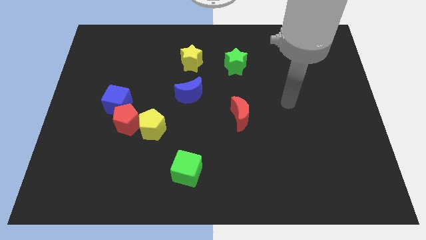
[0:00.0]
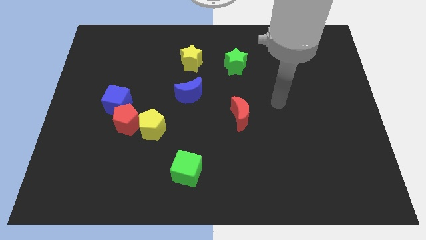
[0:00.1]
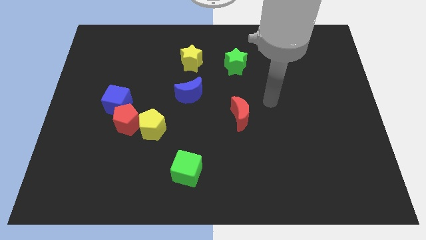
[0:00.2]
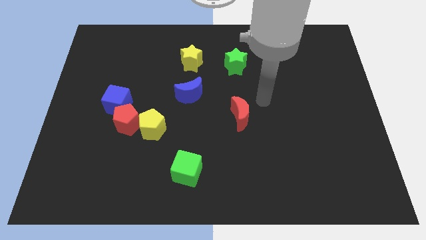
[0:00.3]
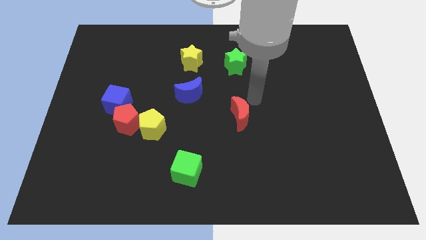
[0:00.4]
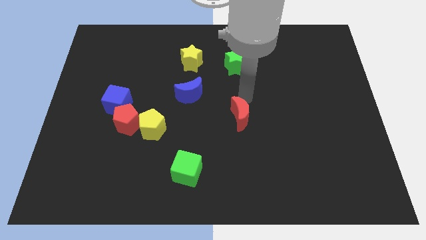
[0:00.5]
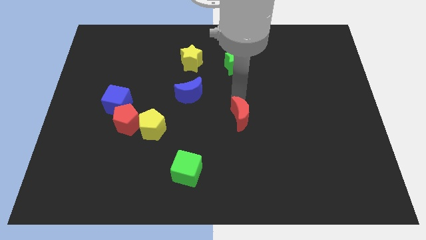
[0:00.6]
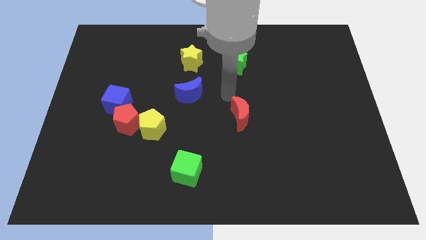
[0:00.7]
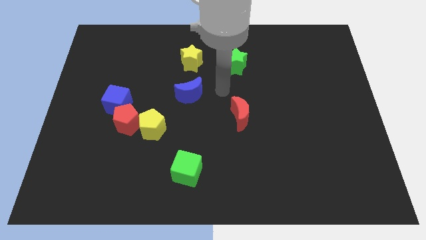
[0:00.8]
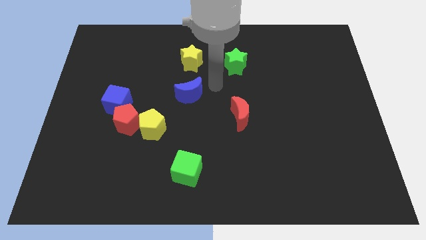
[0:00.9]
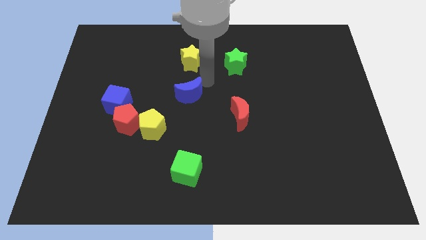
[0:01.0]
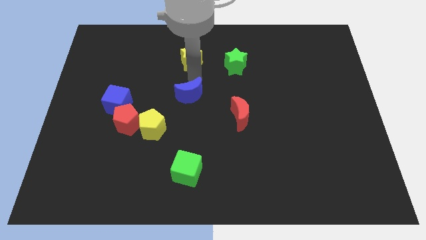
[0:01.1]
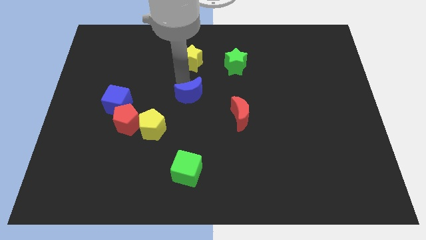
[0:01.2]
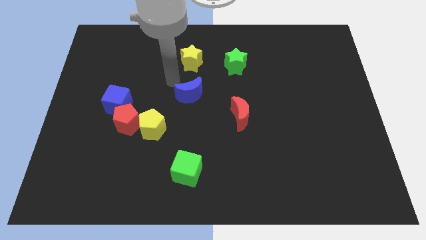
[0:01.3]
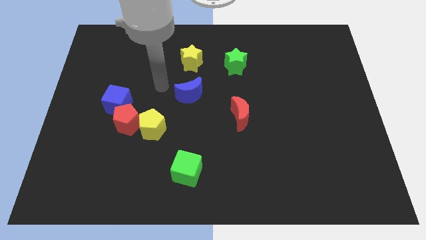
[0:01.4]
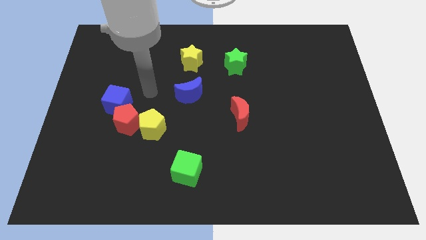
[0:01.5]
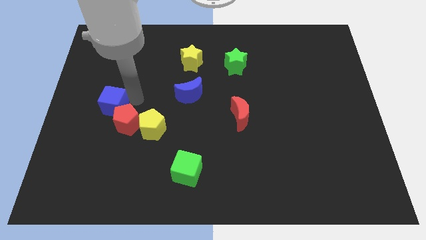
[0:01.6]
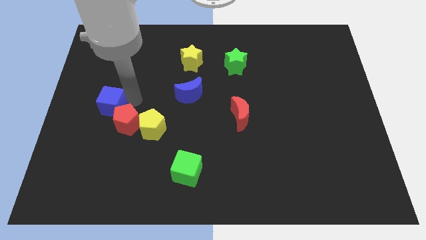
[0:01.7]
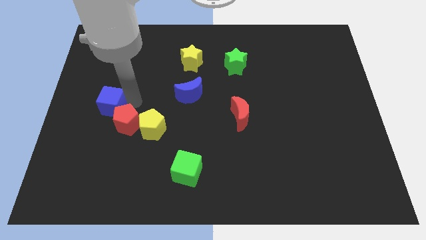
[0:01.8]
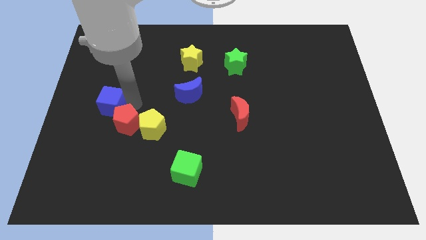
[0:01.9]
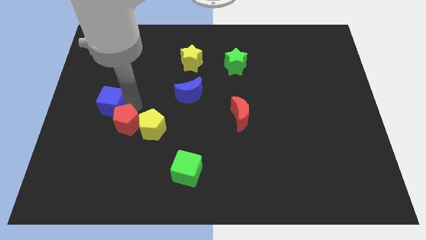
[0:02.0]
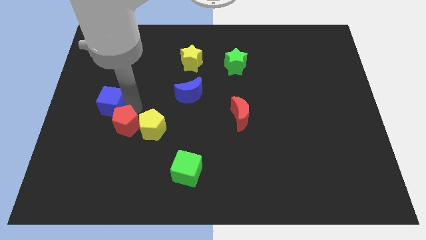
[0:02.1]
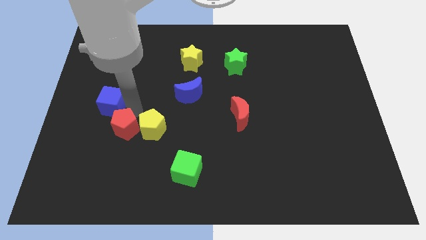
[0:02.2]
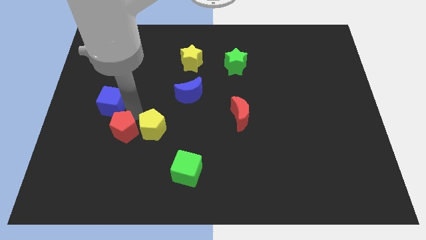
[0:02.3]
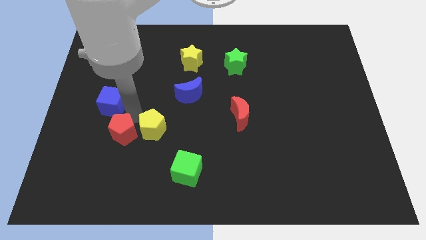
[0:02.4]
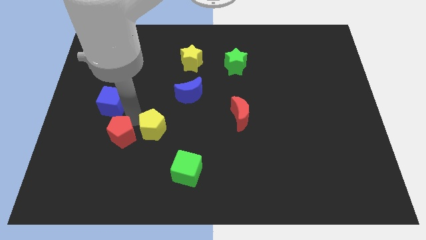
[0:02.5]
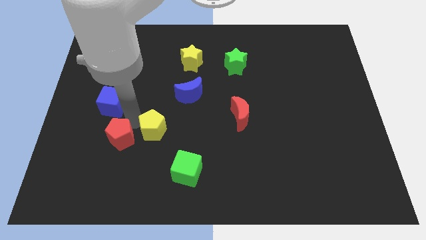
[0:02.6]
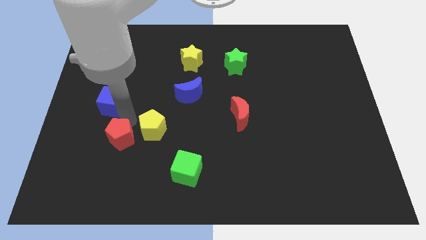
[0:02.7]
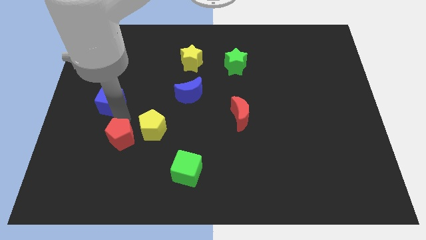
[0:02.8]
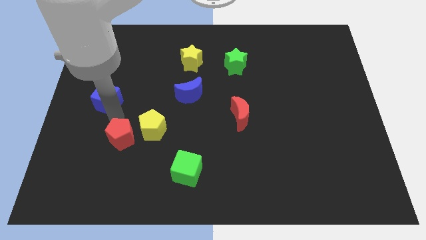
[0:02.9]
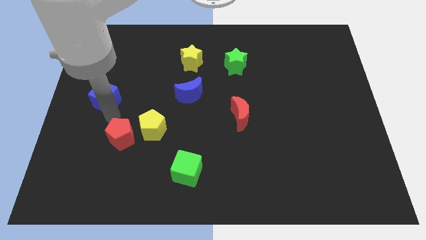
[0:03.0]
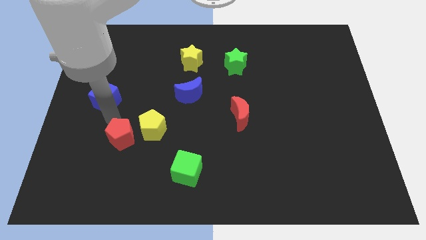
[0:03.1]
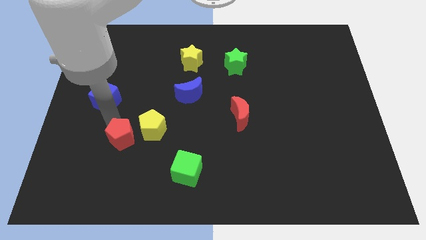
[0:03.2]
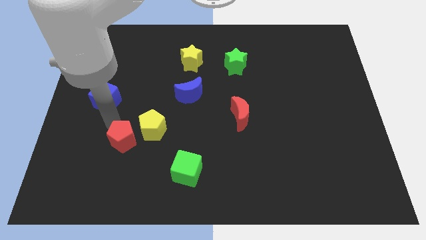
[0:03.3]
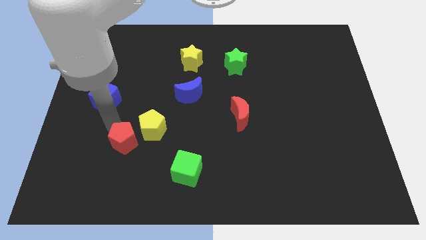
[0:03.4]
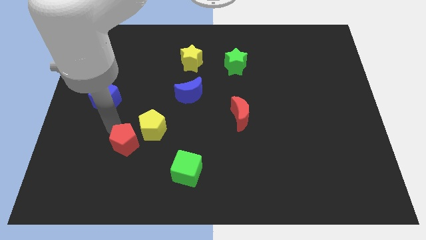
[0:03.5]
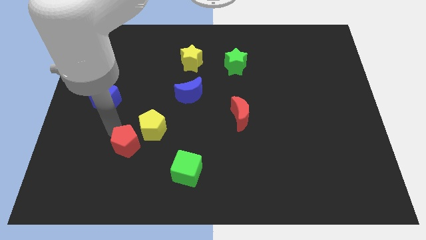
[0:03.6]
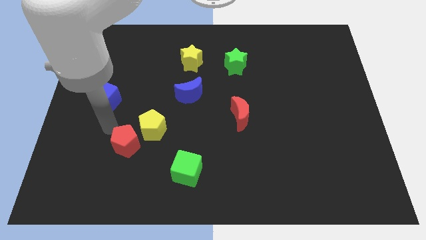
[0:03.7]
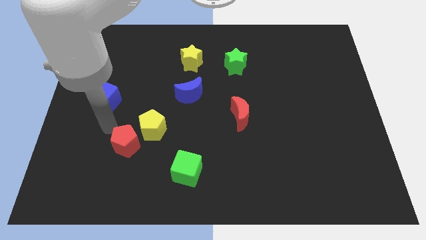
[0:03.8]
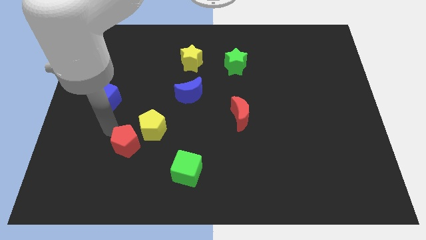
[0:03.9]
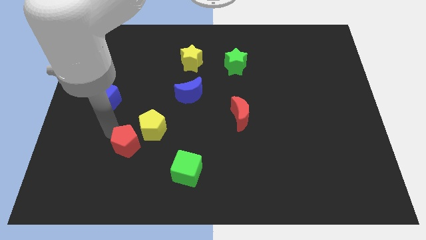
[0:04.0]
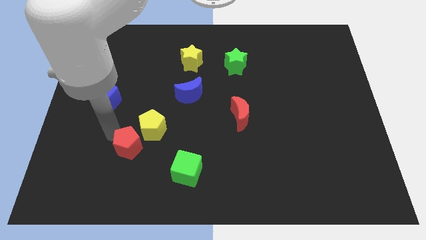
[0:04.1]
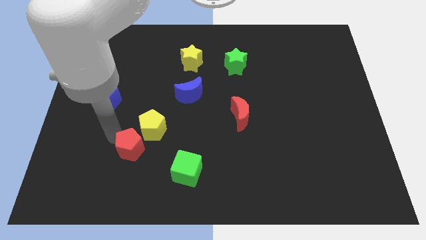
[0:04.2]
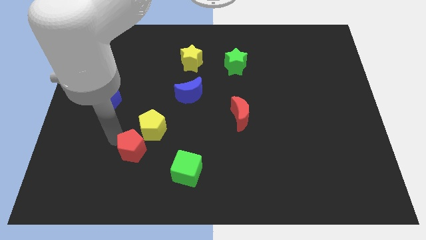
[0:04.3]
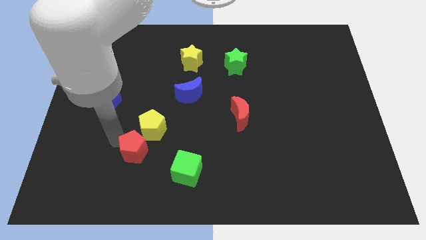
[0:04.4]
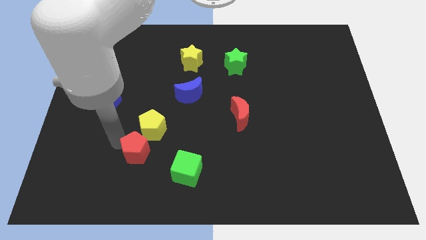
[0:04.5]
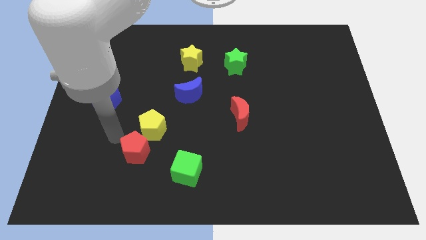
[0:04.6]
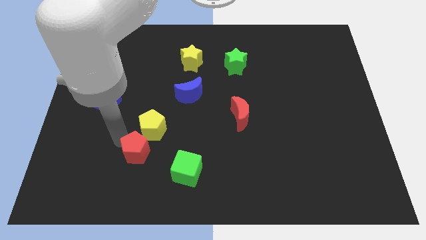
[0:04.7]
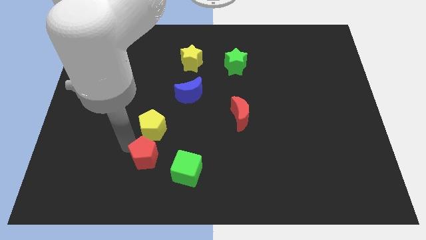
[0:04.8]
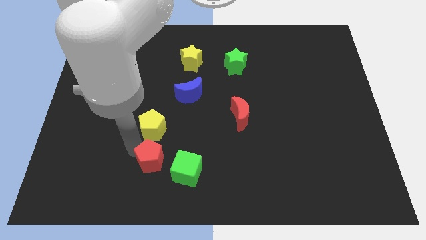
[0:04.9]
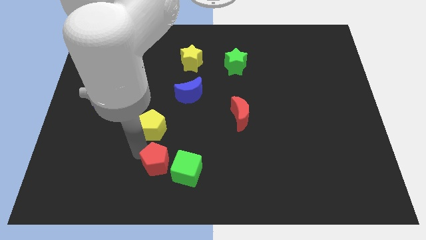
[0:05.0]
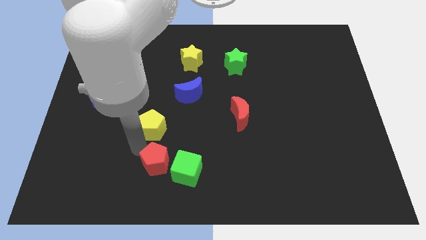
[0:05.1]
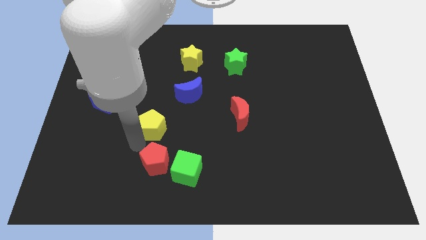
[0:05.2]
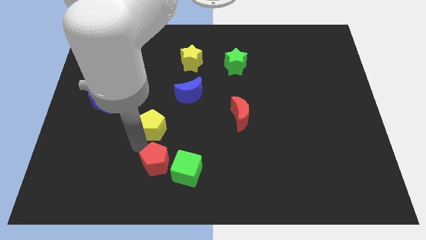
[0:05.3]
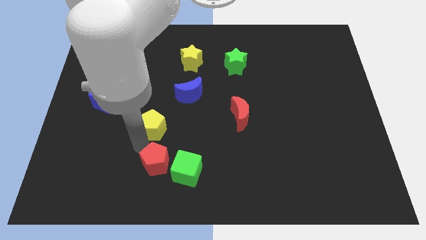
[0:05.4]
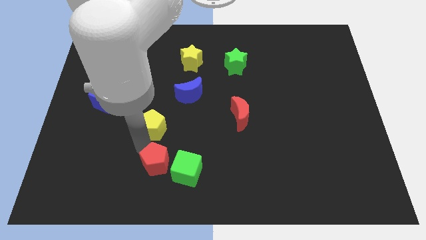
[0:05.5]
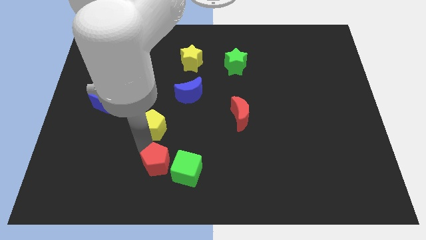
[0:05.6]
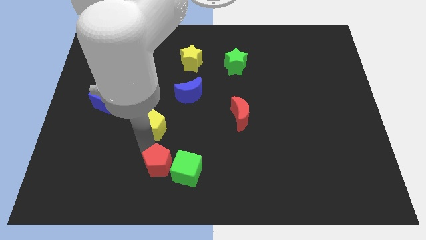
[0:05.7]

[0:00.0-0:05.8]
put the red pentagon towards the green cube

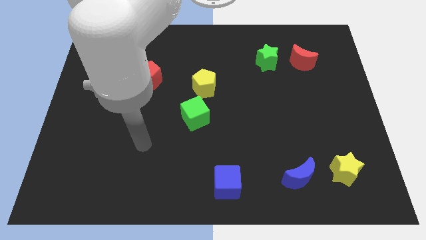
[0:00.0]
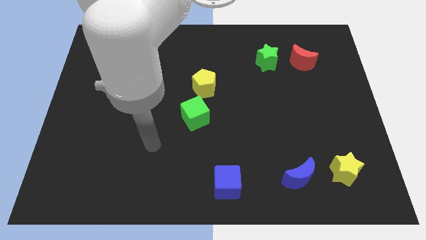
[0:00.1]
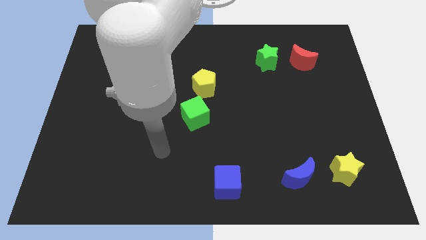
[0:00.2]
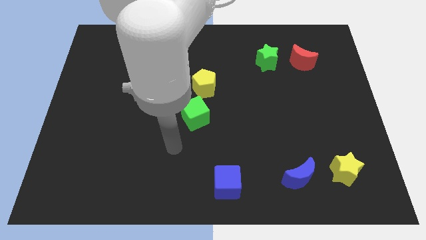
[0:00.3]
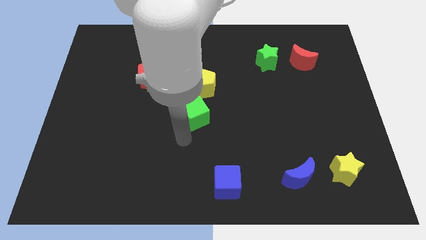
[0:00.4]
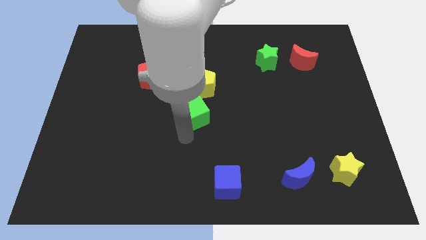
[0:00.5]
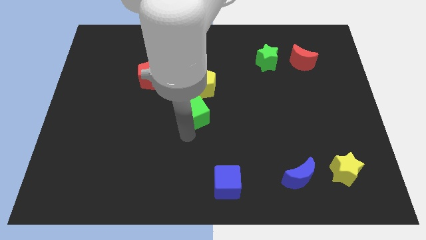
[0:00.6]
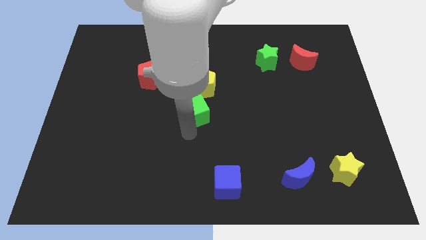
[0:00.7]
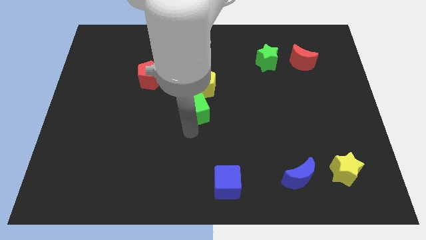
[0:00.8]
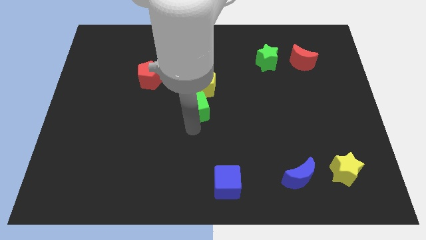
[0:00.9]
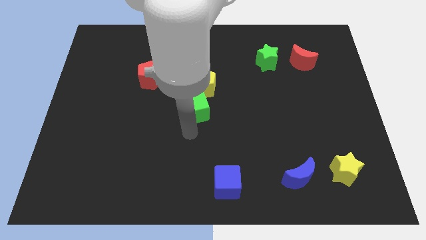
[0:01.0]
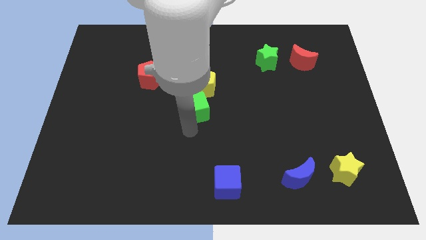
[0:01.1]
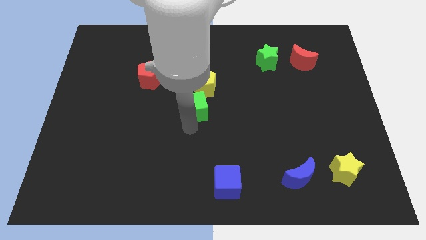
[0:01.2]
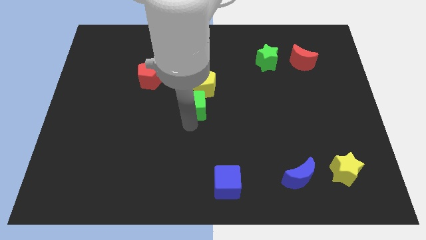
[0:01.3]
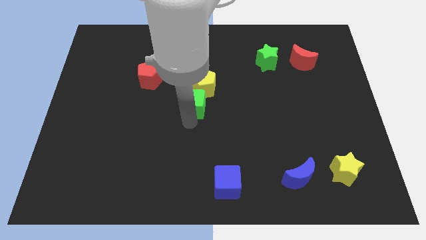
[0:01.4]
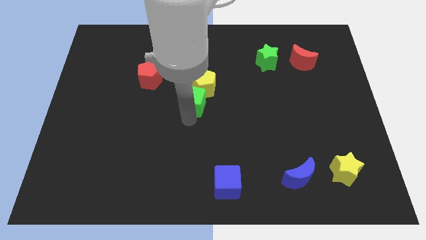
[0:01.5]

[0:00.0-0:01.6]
slide the green cube to the yellow pentagon
